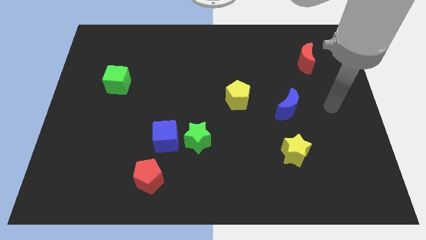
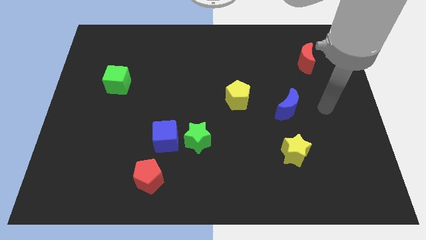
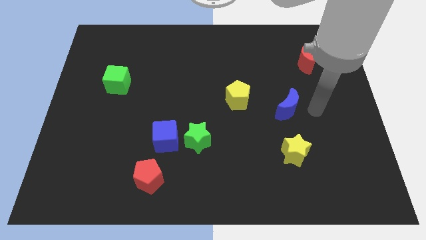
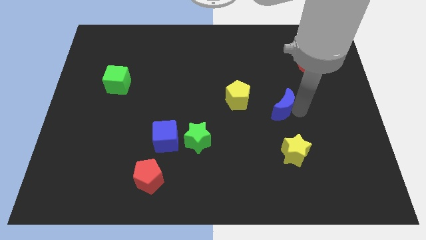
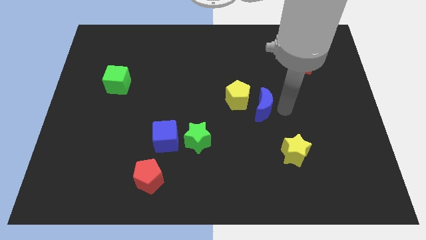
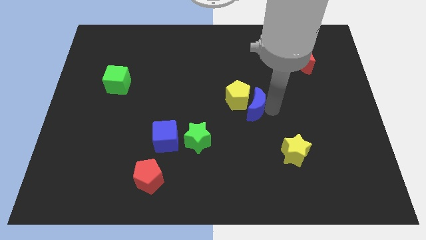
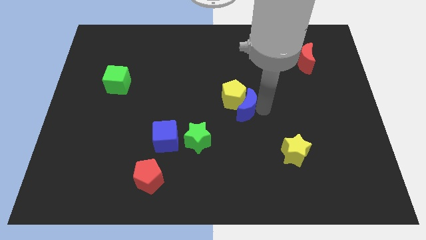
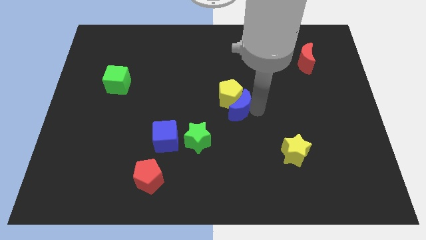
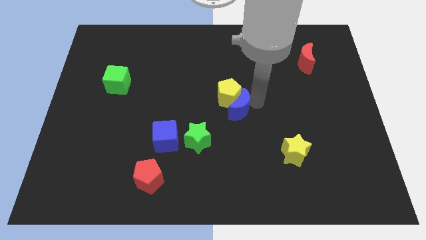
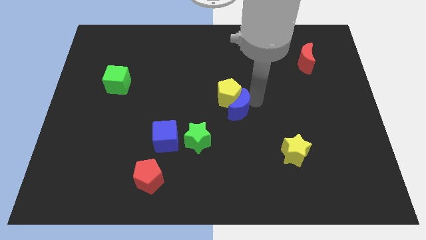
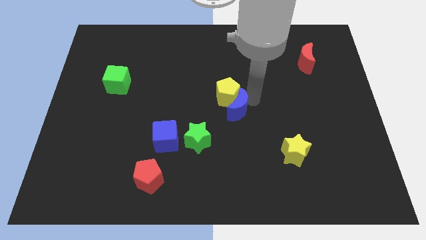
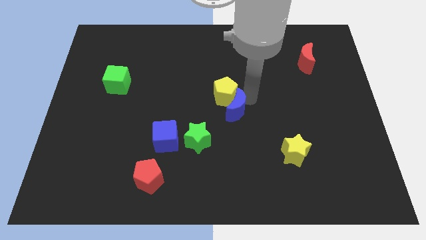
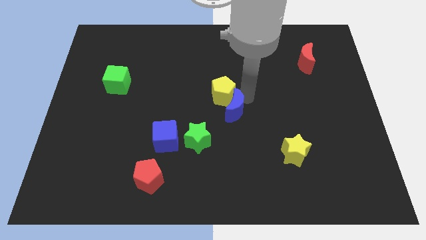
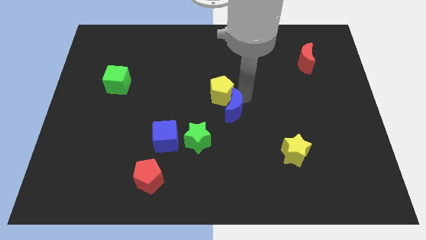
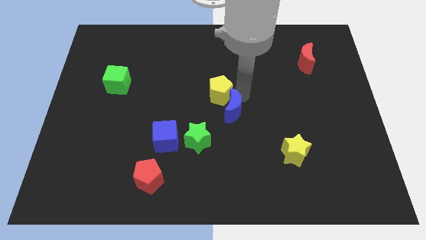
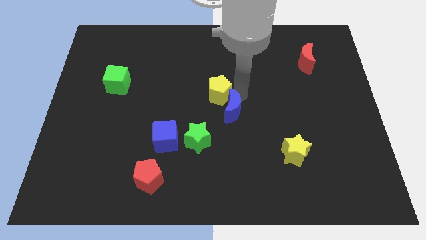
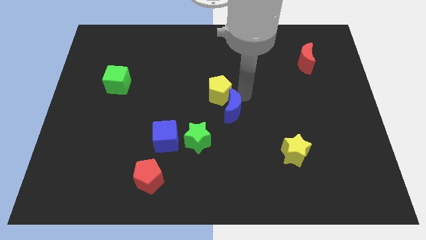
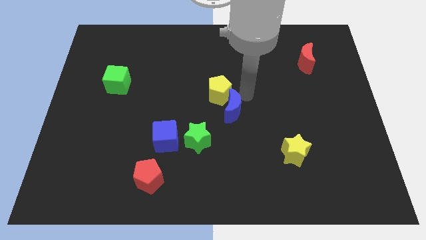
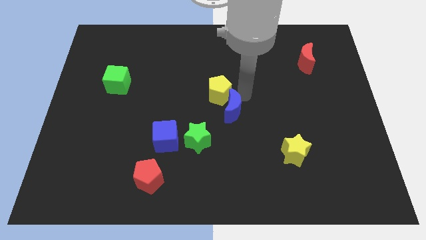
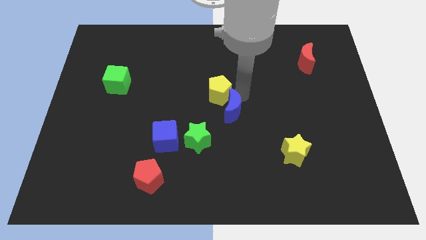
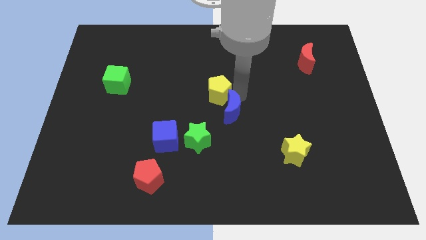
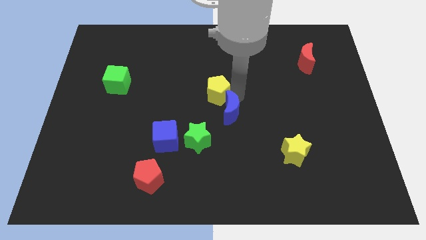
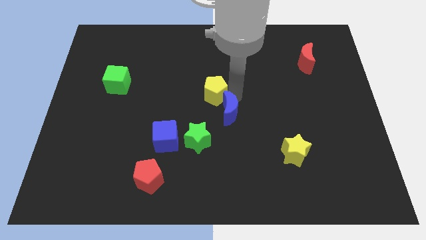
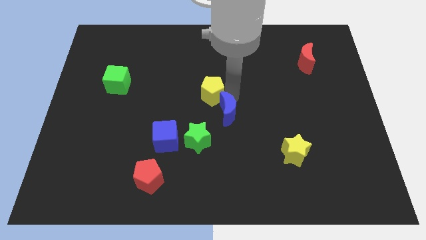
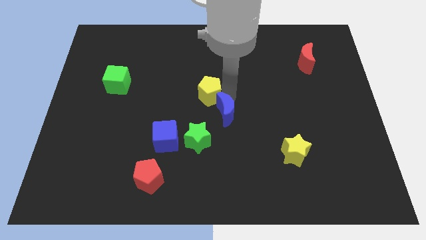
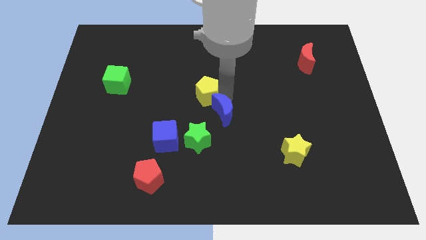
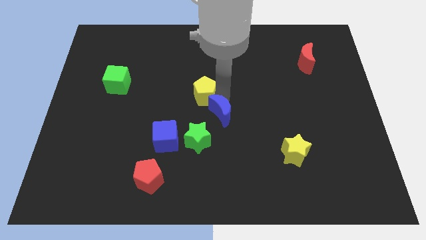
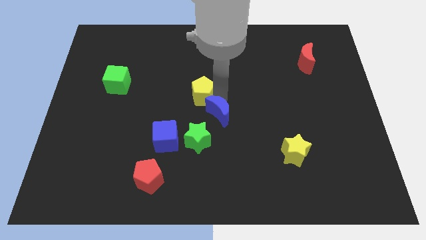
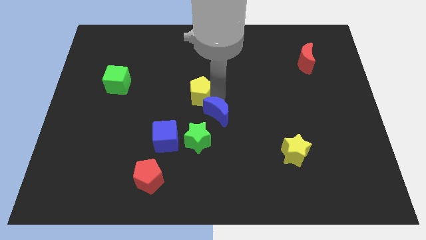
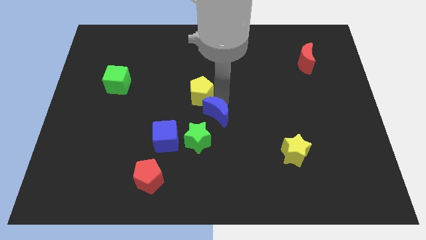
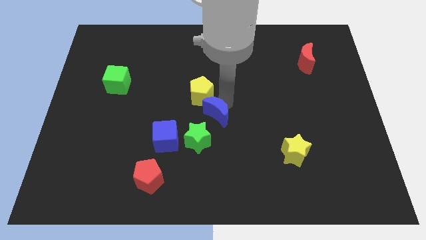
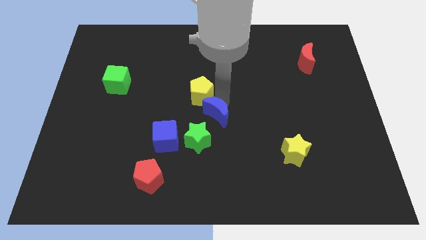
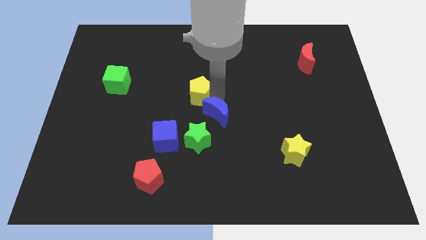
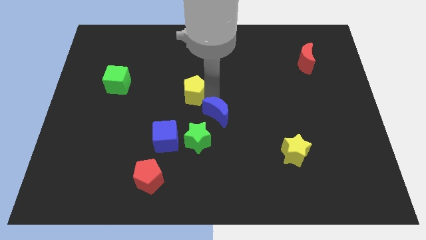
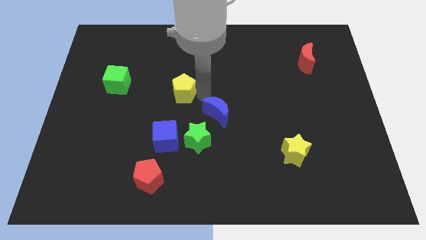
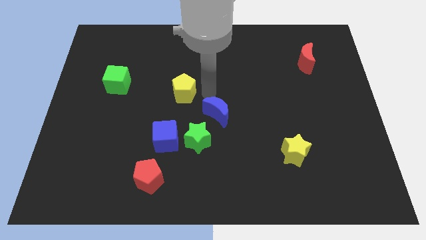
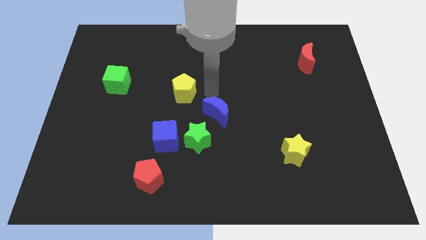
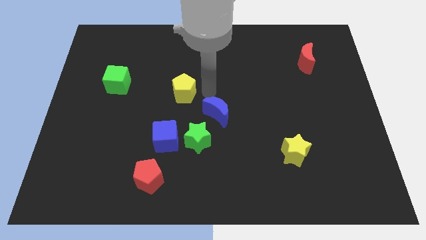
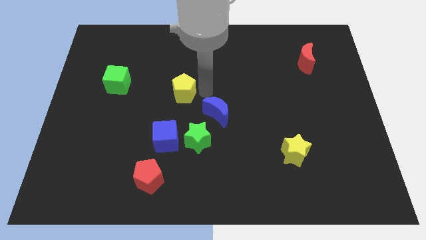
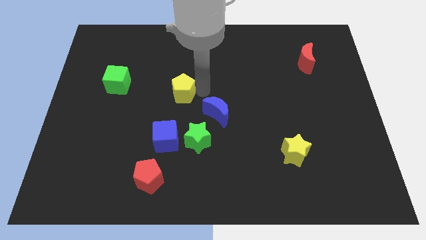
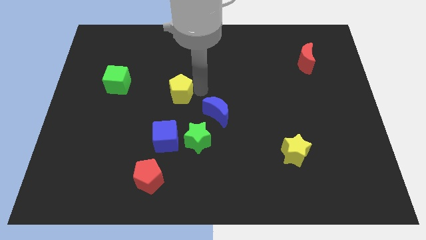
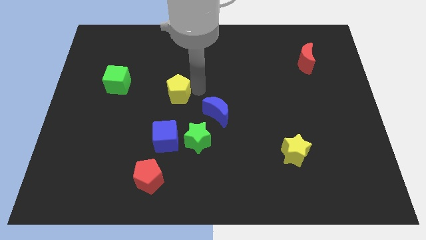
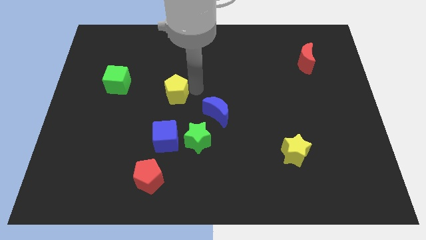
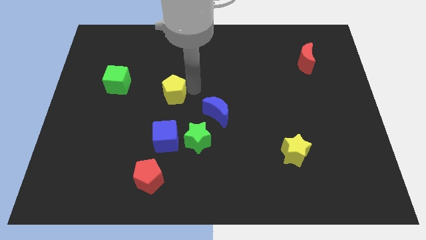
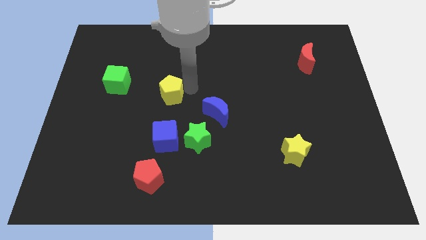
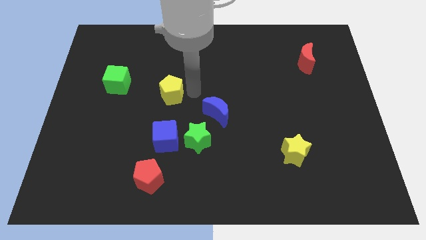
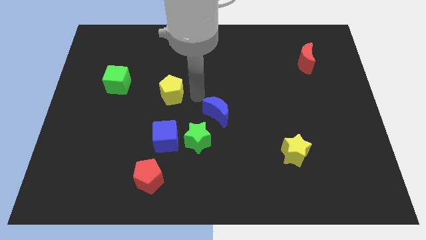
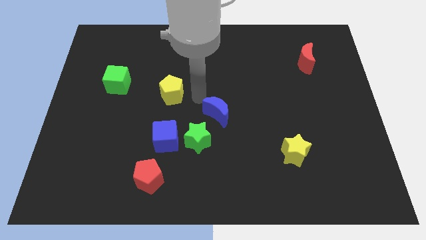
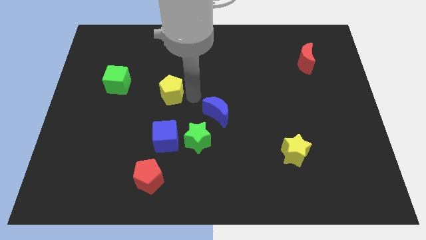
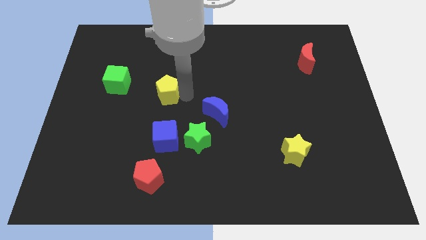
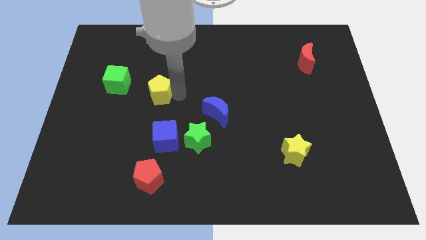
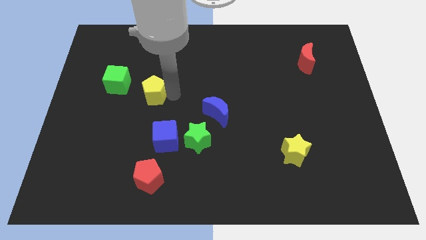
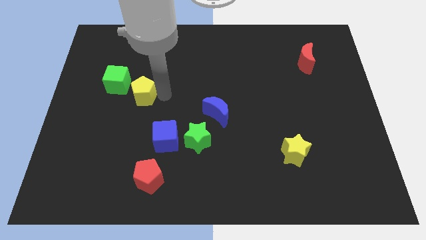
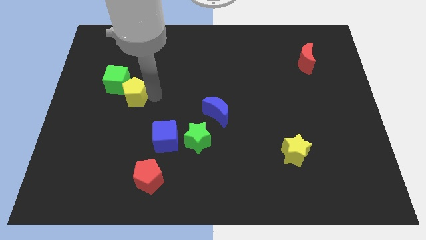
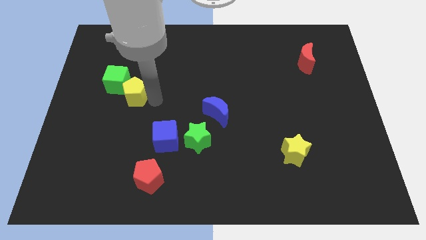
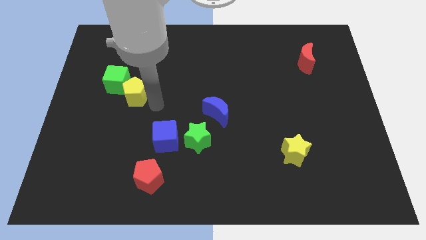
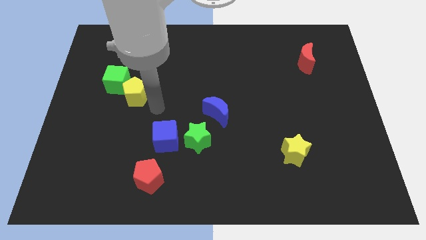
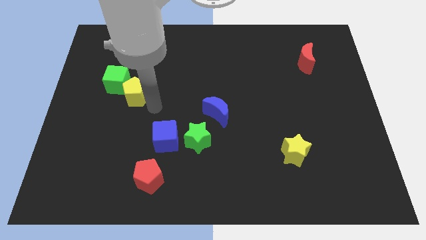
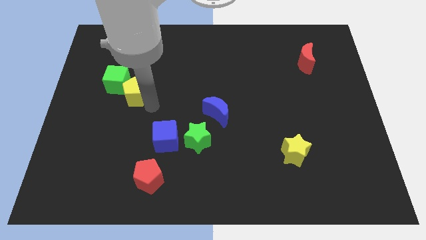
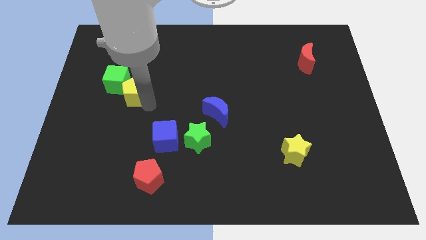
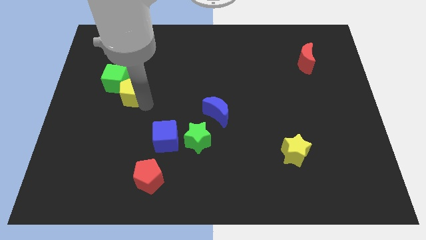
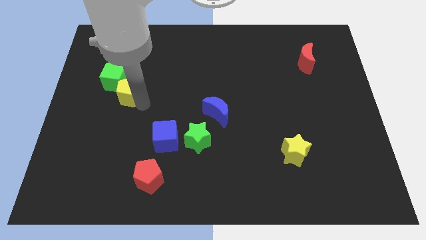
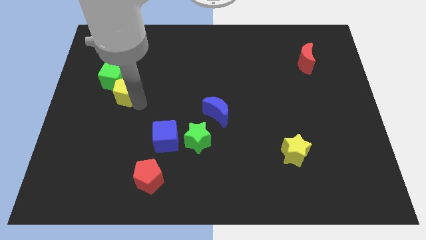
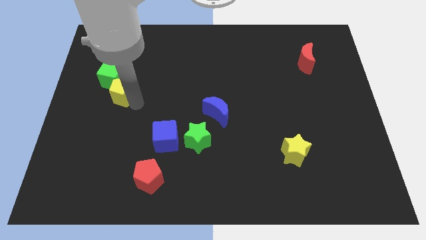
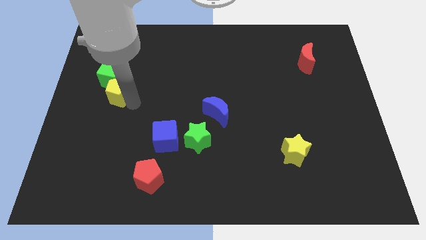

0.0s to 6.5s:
slide the yellow pentagon to the green cube

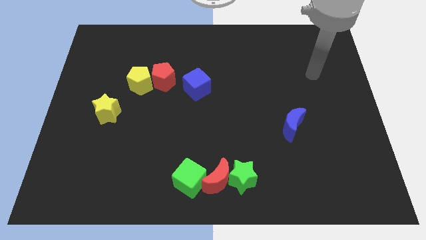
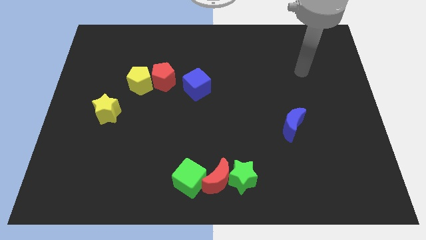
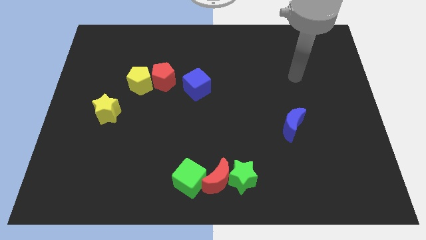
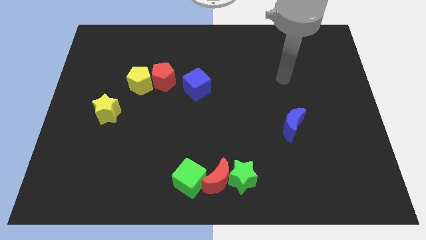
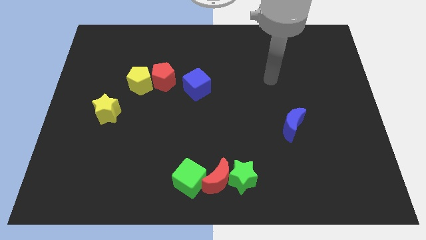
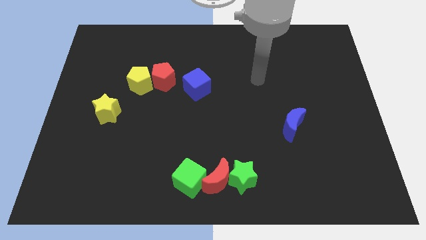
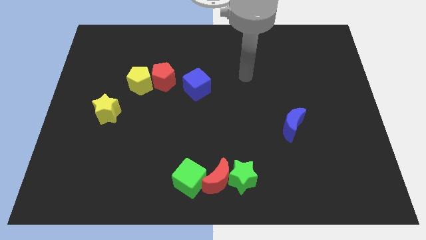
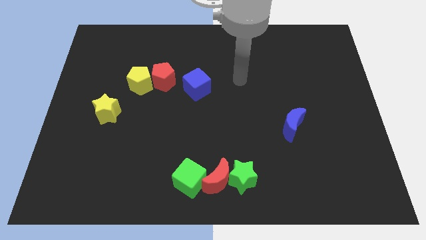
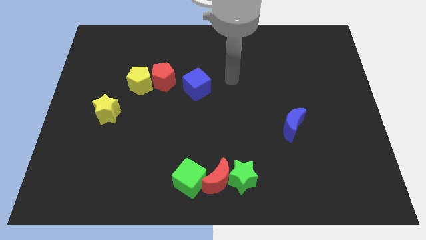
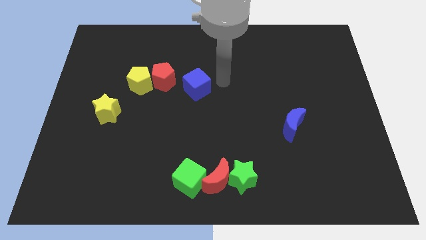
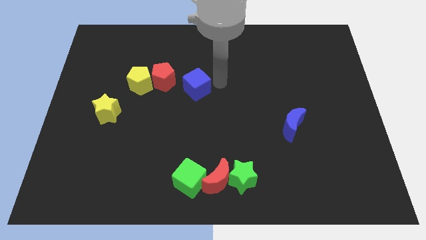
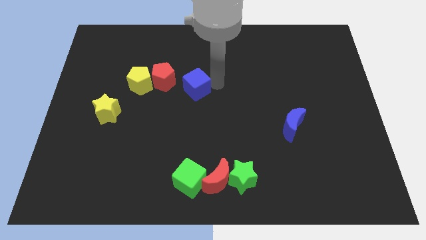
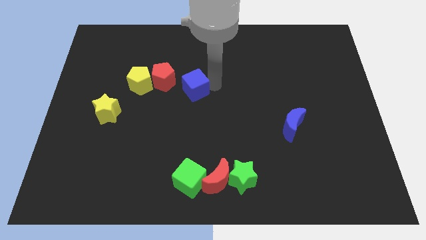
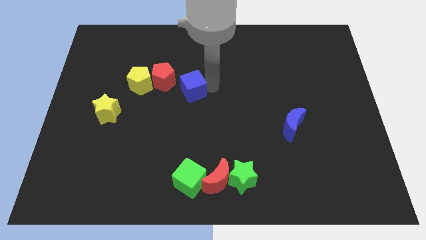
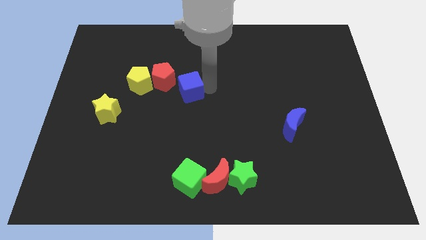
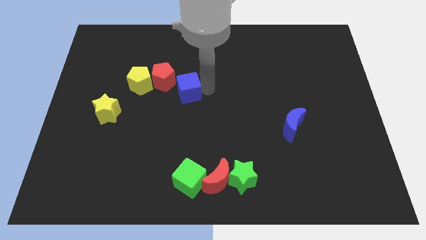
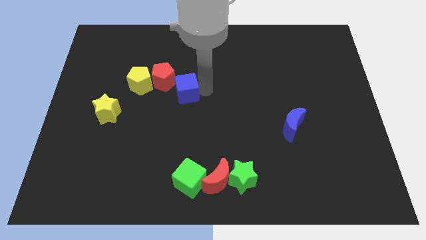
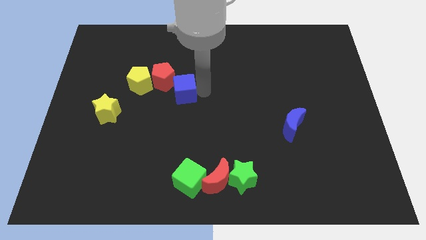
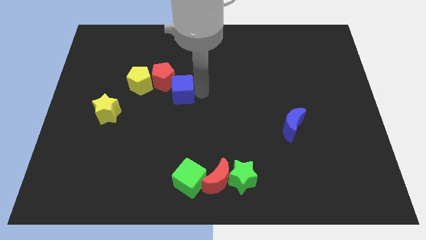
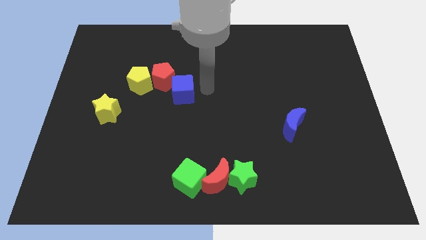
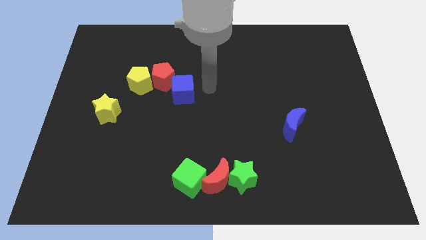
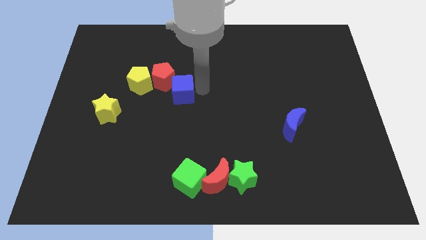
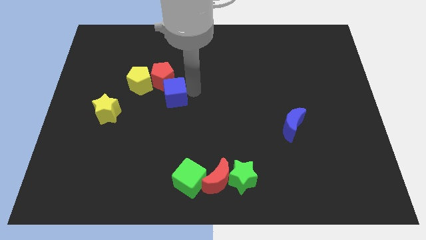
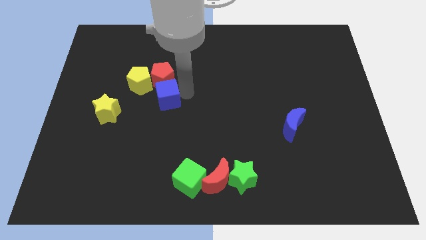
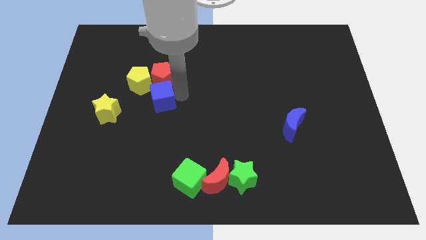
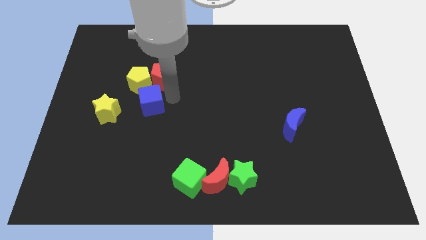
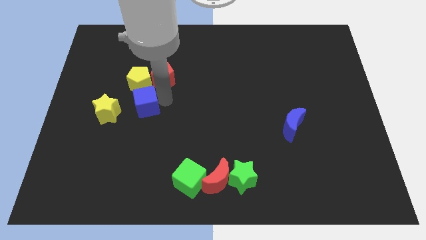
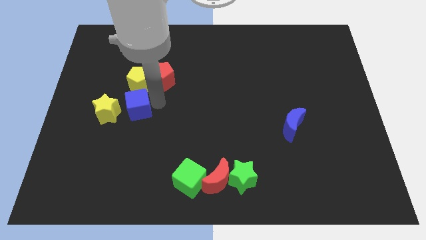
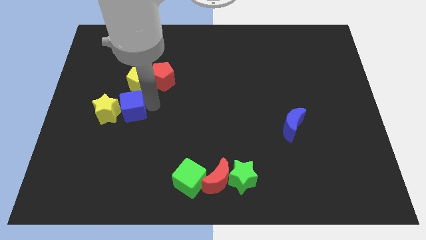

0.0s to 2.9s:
put the blue cube towards the yellow star
